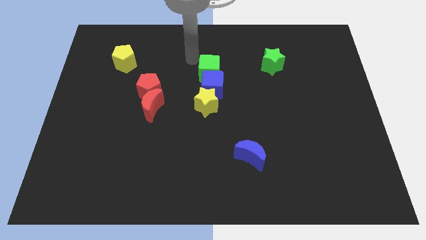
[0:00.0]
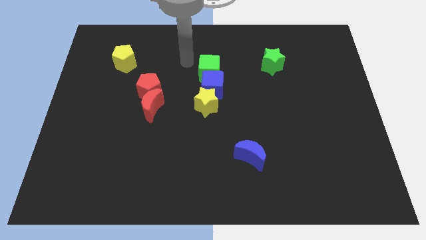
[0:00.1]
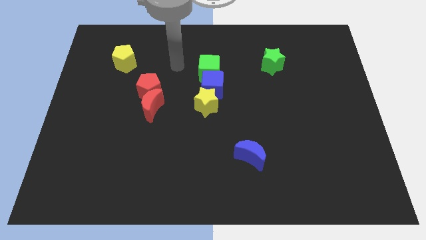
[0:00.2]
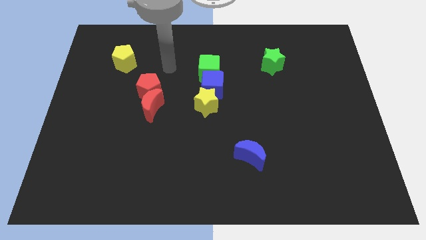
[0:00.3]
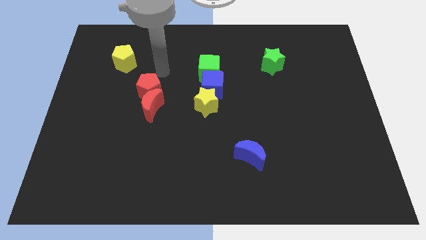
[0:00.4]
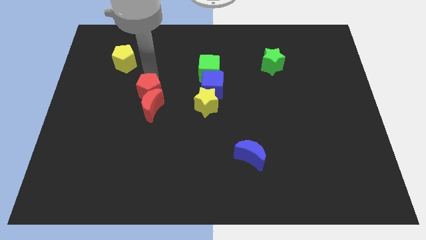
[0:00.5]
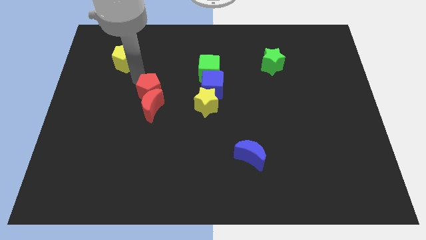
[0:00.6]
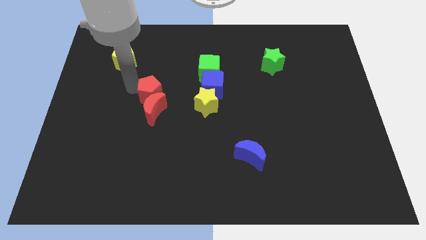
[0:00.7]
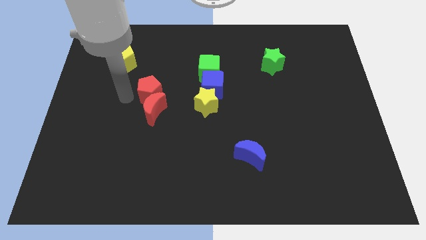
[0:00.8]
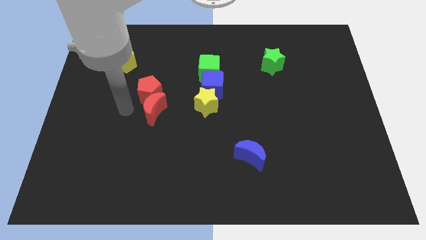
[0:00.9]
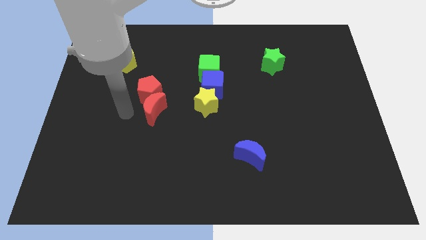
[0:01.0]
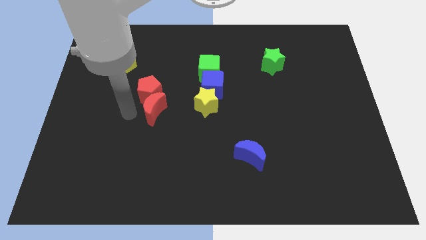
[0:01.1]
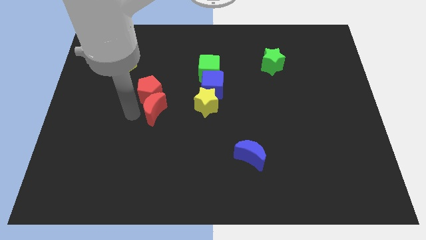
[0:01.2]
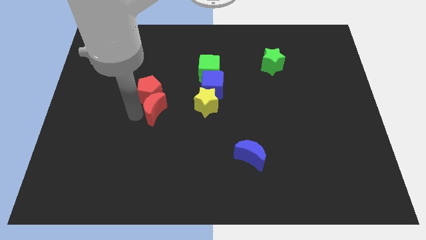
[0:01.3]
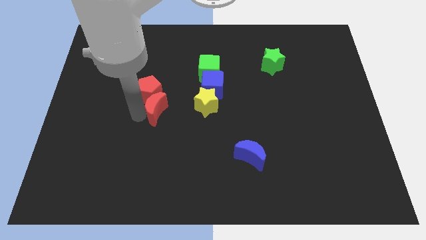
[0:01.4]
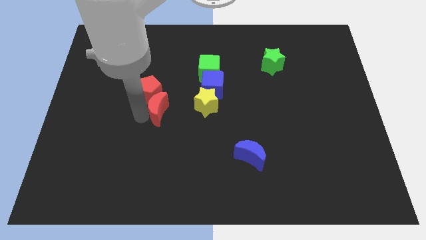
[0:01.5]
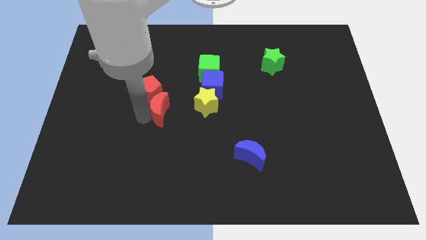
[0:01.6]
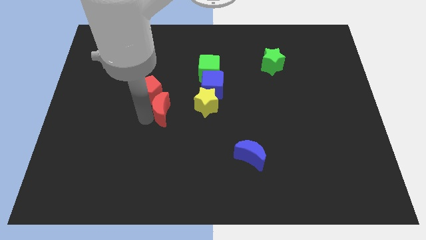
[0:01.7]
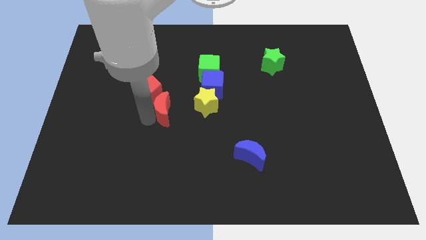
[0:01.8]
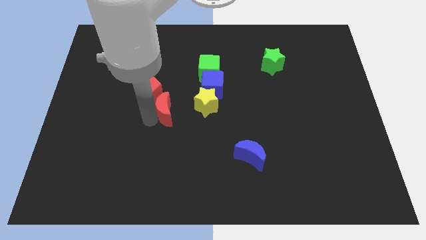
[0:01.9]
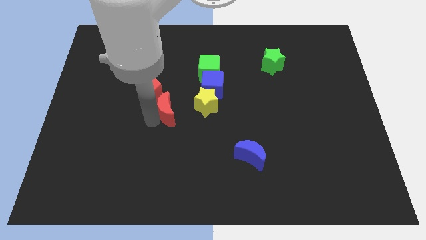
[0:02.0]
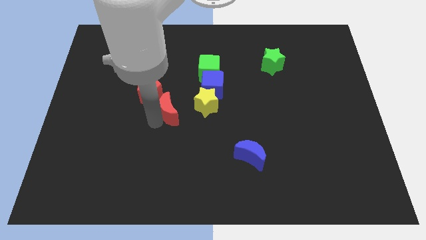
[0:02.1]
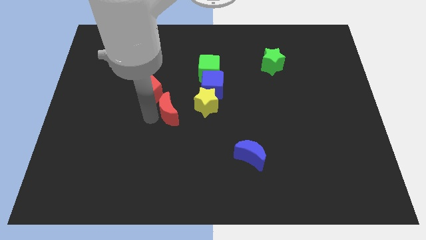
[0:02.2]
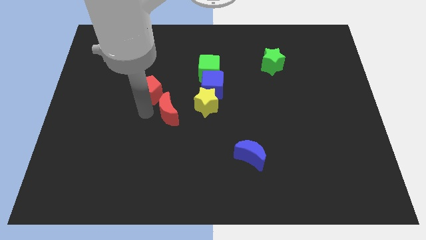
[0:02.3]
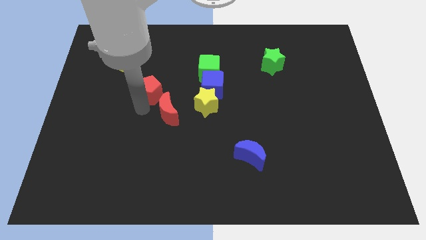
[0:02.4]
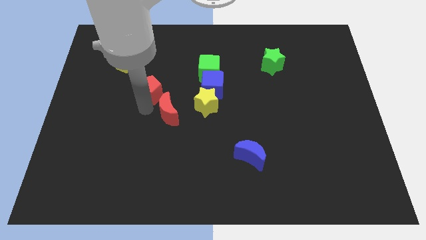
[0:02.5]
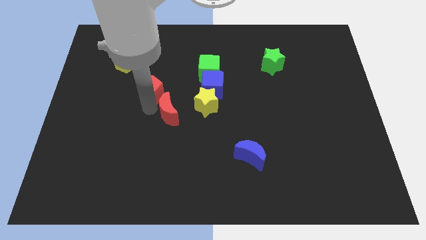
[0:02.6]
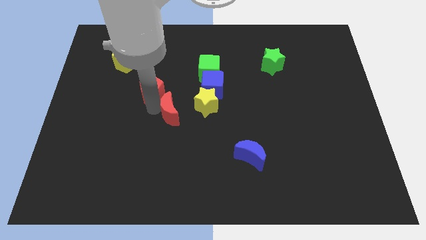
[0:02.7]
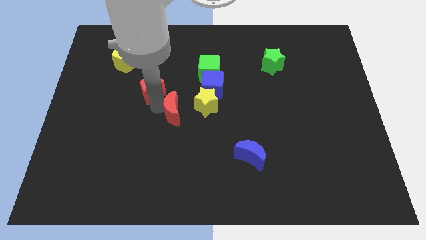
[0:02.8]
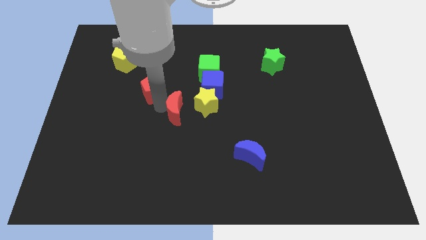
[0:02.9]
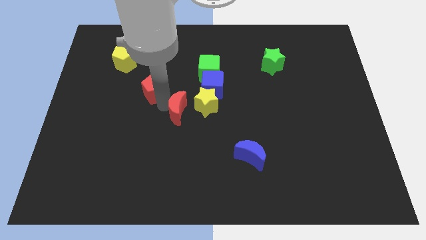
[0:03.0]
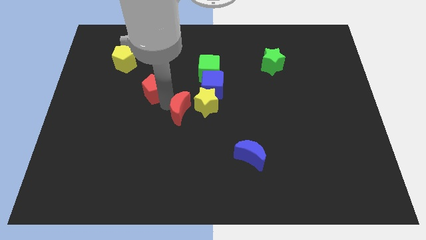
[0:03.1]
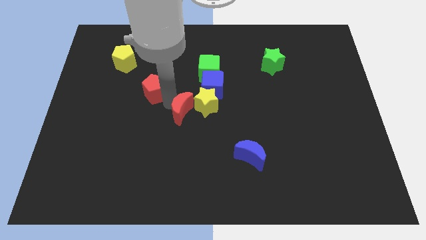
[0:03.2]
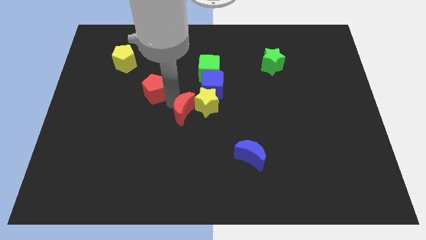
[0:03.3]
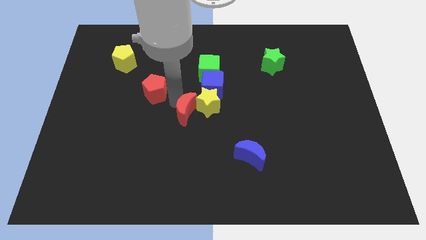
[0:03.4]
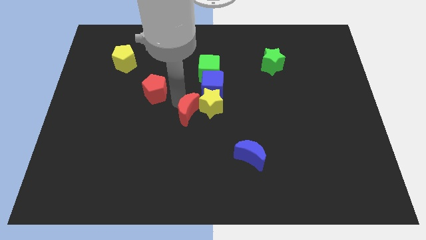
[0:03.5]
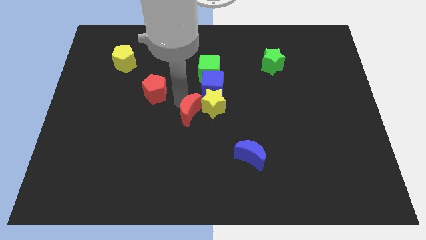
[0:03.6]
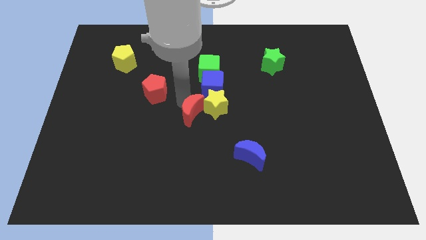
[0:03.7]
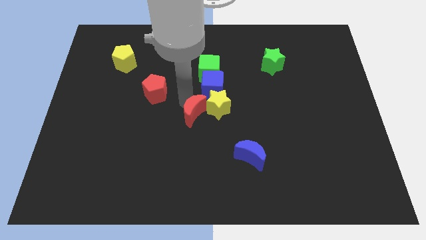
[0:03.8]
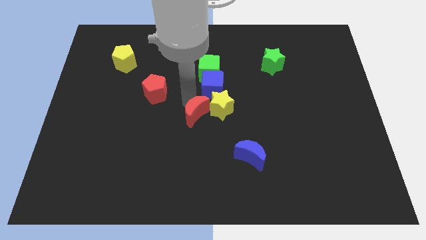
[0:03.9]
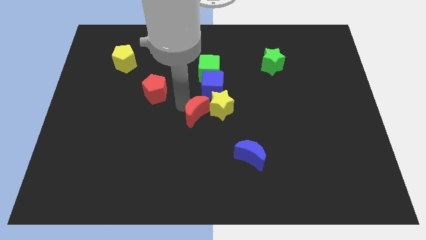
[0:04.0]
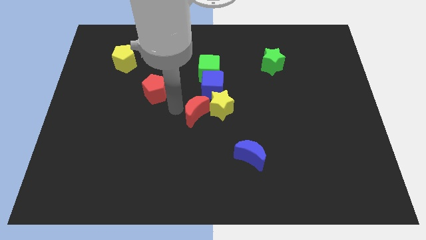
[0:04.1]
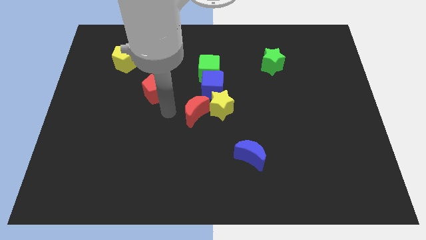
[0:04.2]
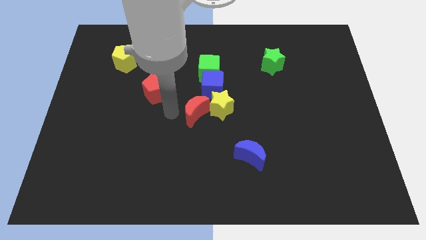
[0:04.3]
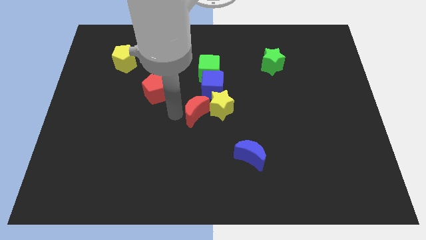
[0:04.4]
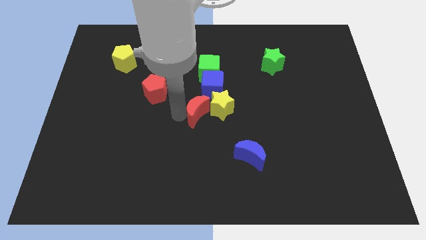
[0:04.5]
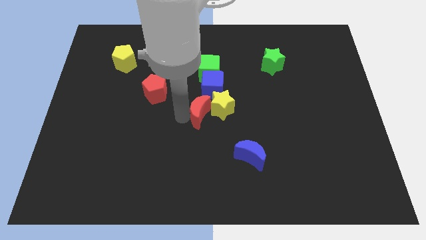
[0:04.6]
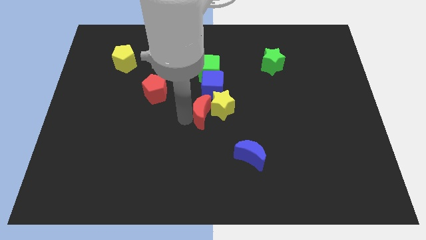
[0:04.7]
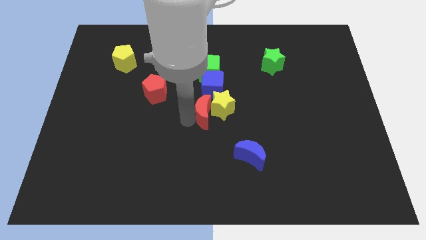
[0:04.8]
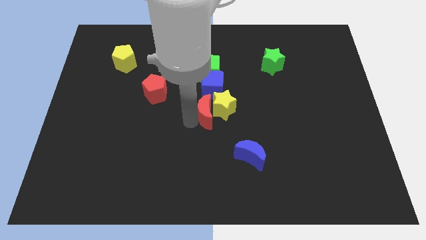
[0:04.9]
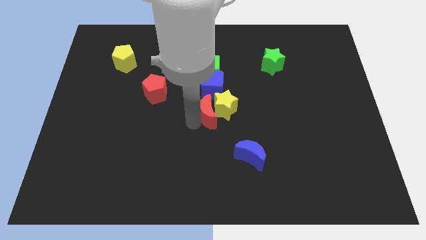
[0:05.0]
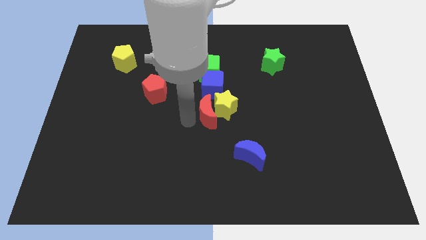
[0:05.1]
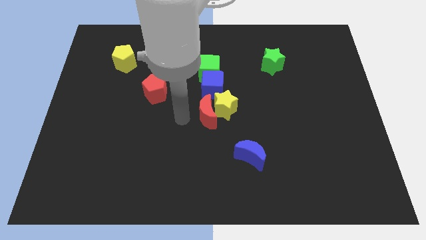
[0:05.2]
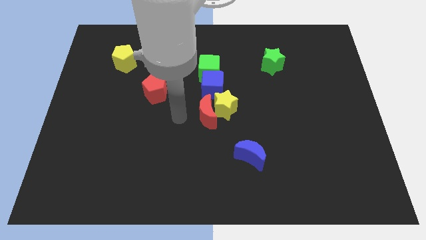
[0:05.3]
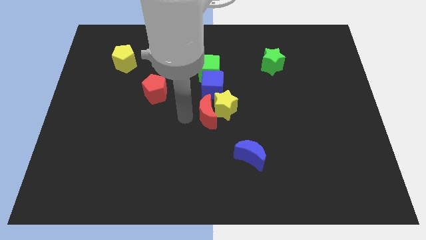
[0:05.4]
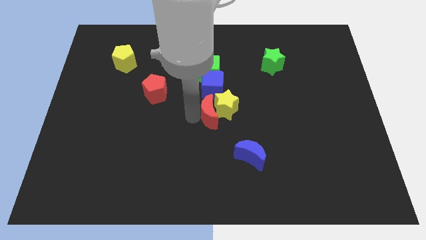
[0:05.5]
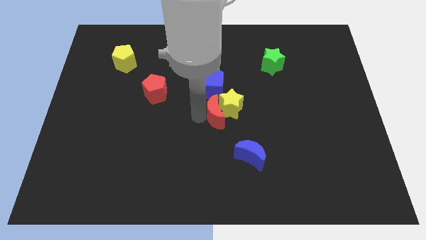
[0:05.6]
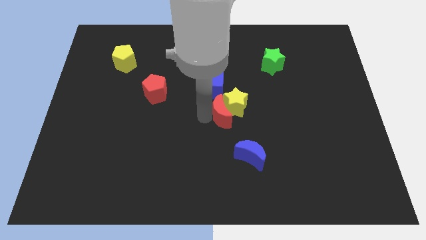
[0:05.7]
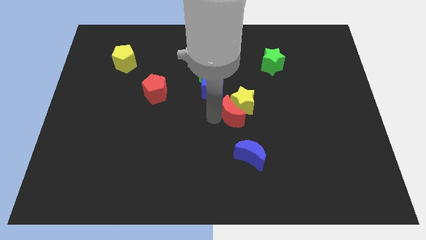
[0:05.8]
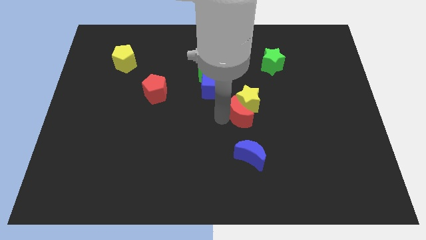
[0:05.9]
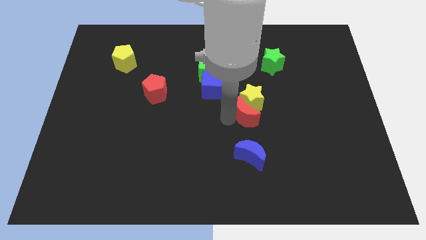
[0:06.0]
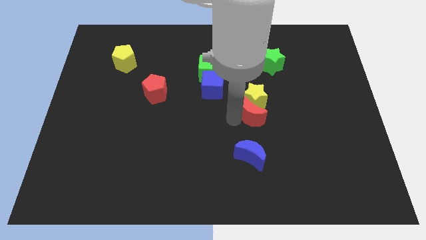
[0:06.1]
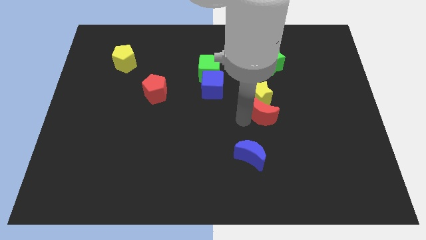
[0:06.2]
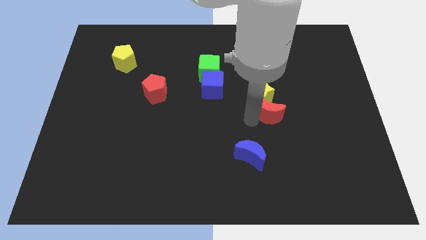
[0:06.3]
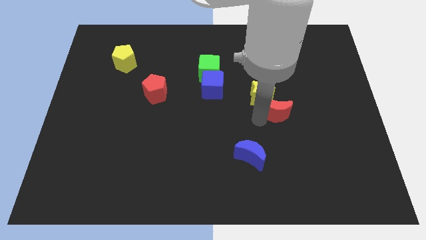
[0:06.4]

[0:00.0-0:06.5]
slide the red moon to the bottom side of the green star

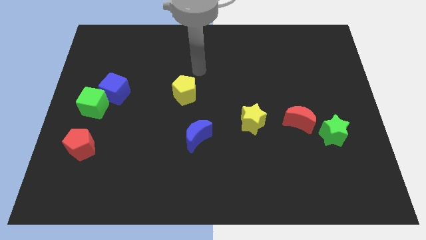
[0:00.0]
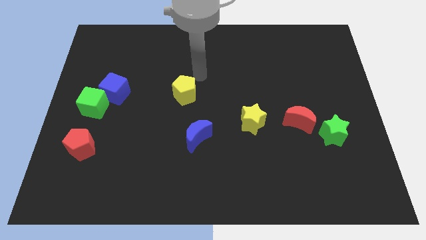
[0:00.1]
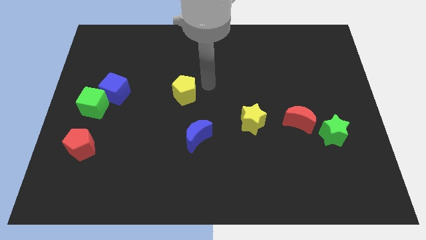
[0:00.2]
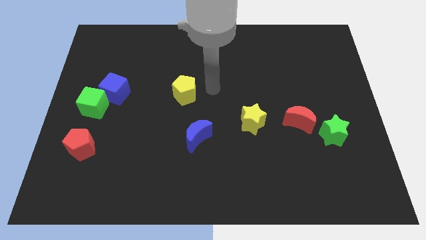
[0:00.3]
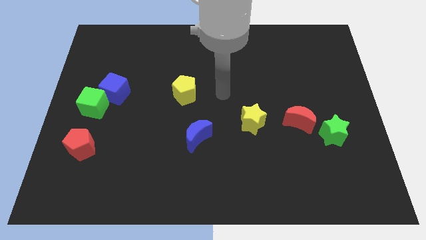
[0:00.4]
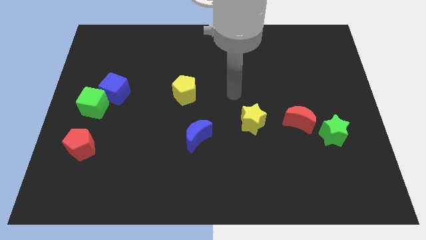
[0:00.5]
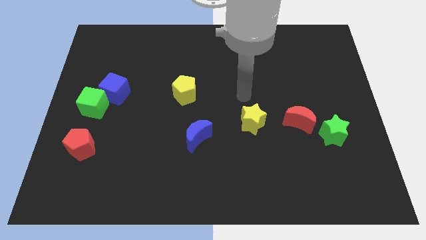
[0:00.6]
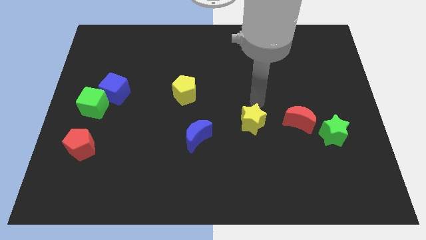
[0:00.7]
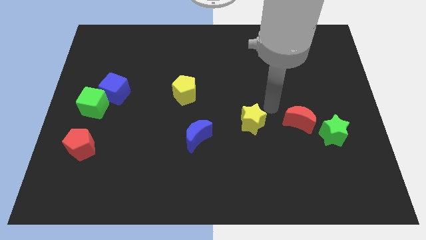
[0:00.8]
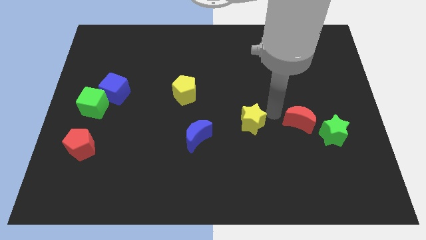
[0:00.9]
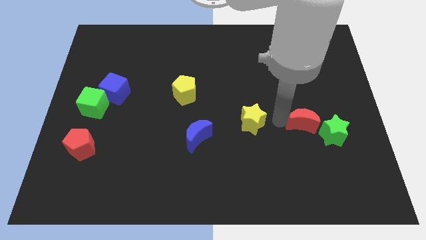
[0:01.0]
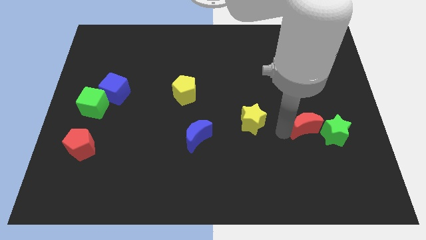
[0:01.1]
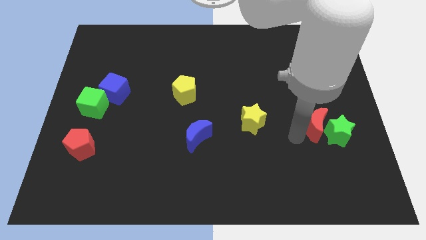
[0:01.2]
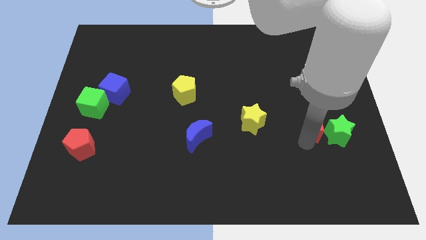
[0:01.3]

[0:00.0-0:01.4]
move the green star to the top right side of the red moon
